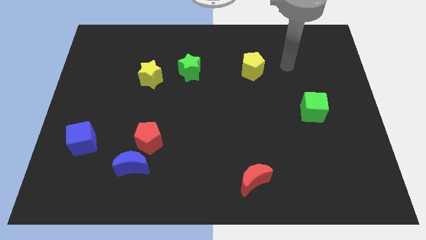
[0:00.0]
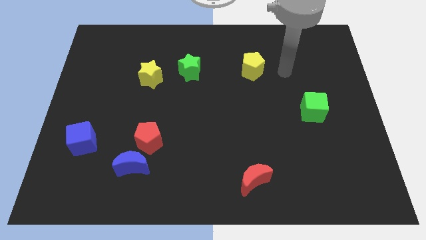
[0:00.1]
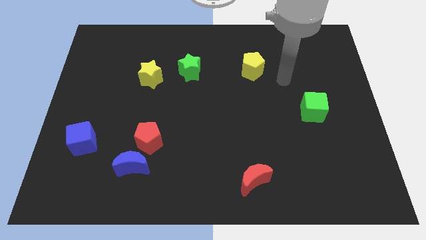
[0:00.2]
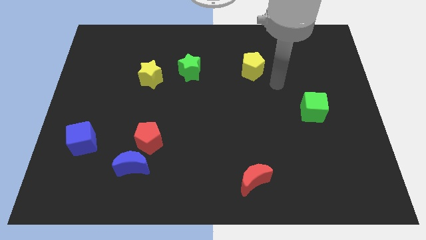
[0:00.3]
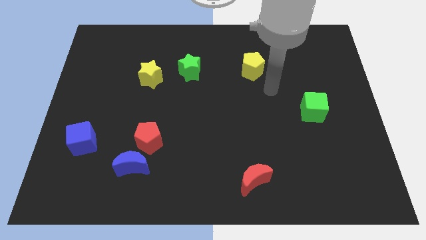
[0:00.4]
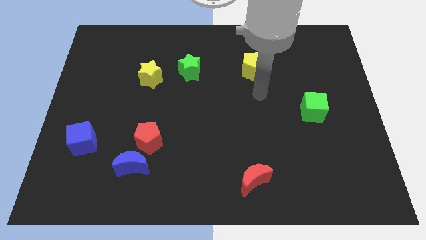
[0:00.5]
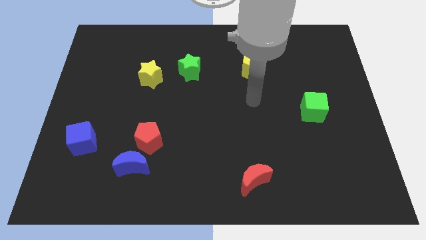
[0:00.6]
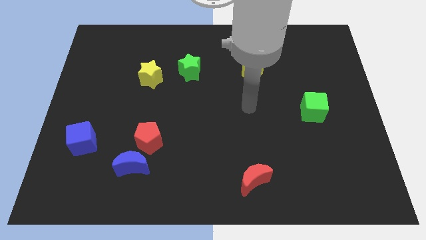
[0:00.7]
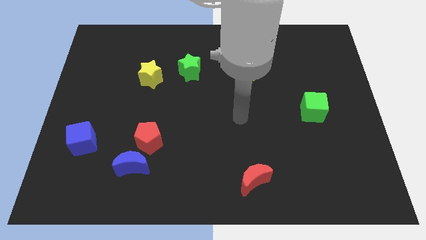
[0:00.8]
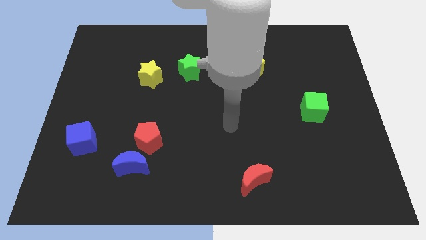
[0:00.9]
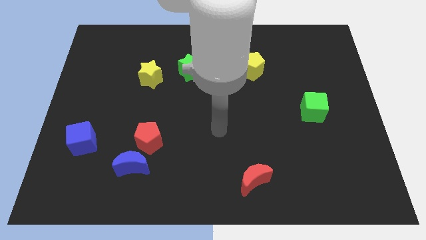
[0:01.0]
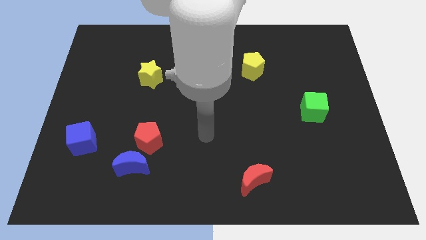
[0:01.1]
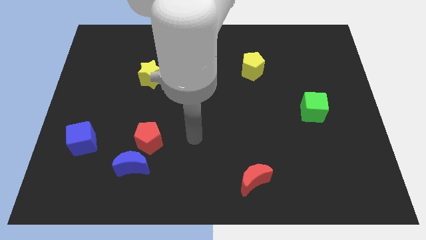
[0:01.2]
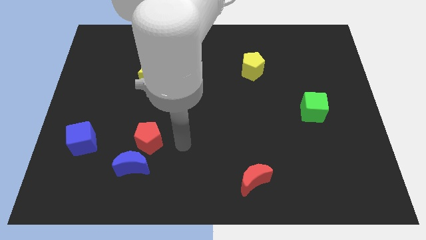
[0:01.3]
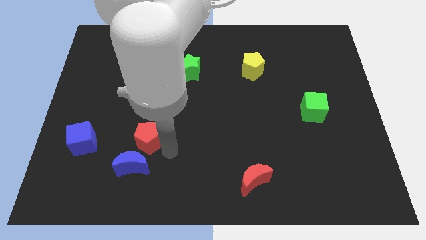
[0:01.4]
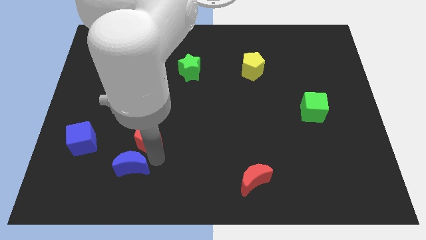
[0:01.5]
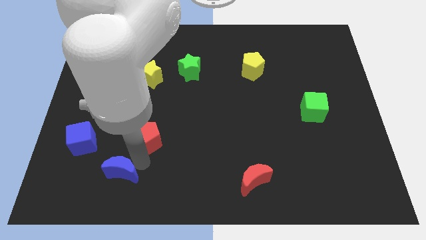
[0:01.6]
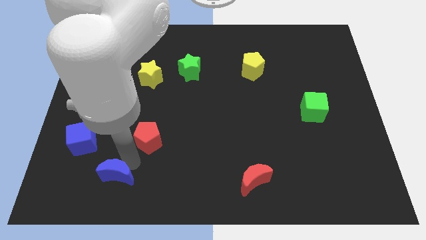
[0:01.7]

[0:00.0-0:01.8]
move the red pentagon away from the blue moon

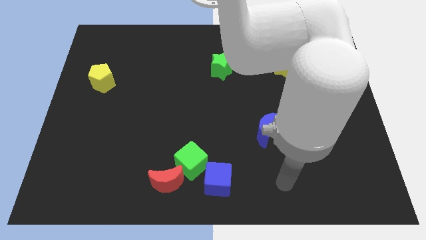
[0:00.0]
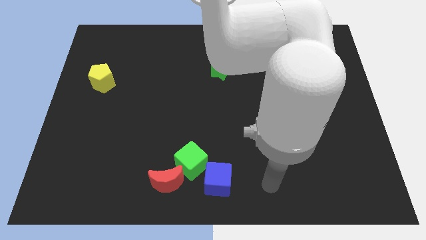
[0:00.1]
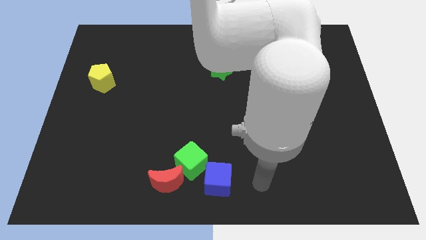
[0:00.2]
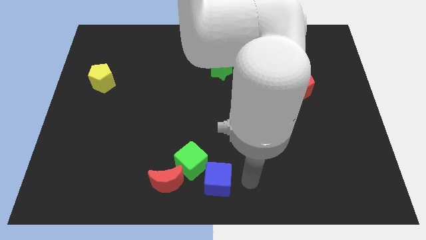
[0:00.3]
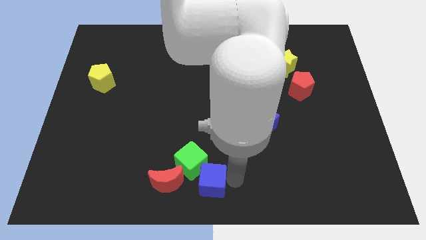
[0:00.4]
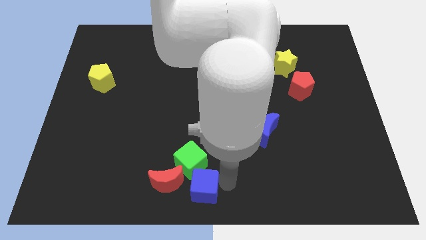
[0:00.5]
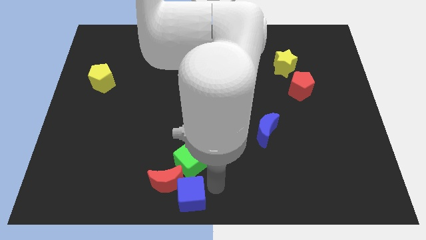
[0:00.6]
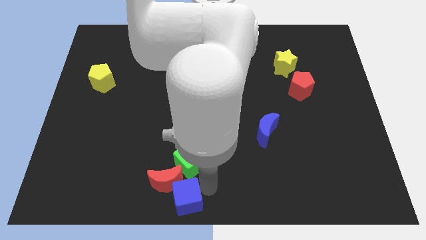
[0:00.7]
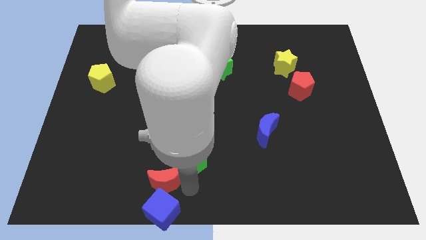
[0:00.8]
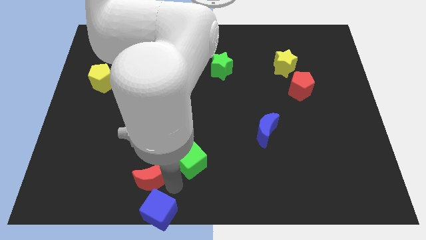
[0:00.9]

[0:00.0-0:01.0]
move the green cube away from the red moon and blue cube

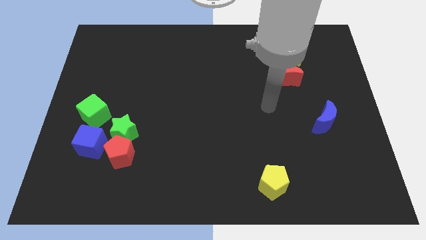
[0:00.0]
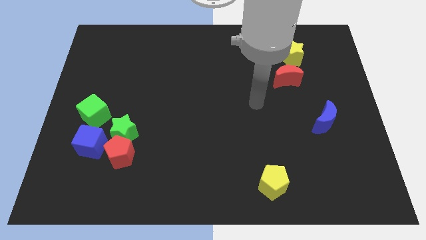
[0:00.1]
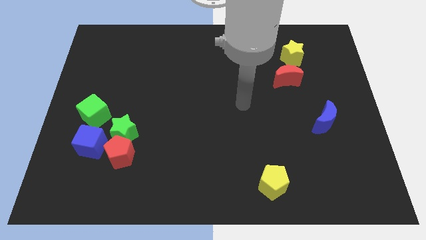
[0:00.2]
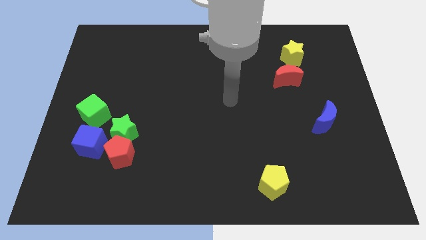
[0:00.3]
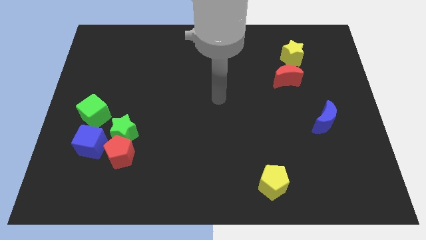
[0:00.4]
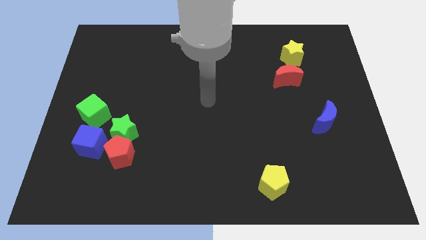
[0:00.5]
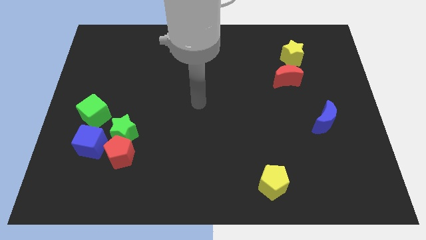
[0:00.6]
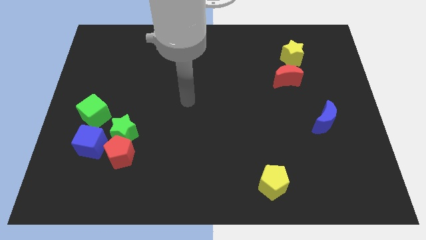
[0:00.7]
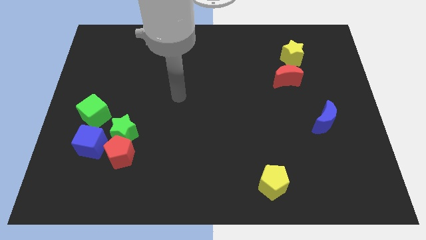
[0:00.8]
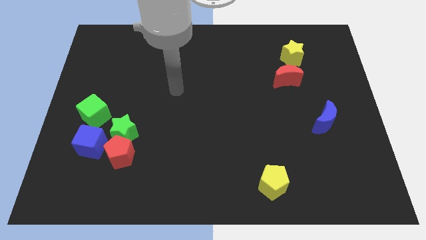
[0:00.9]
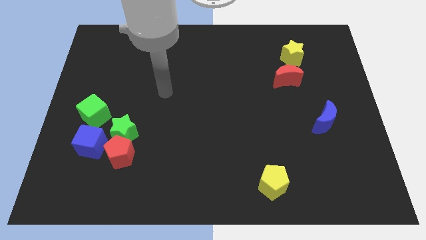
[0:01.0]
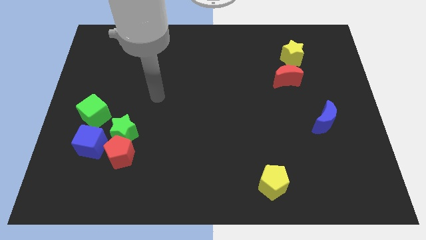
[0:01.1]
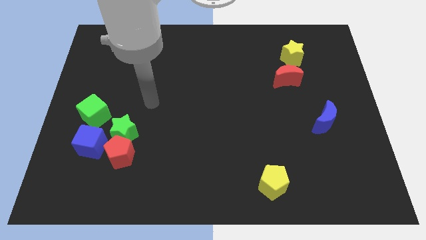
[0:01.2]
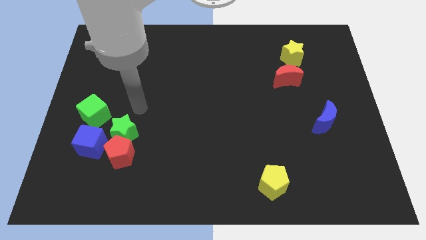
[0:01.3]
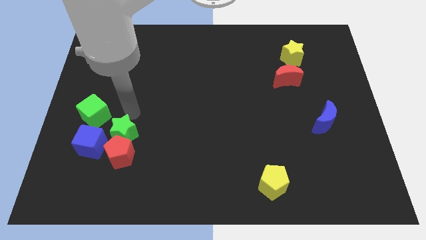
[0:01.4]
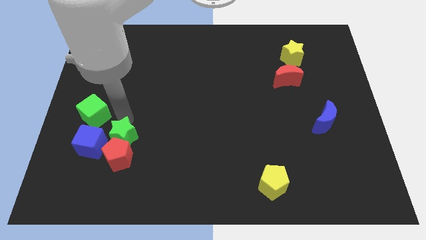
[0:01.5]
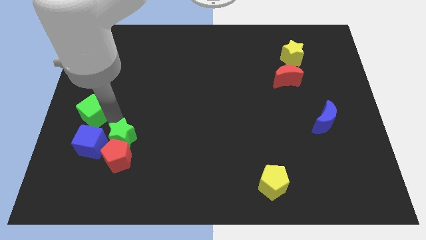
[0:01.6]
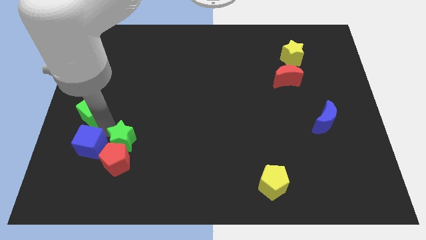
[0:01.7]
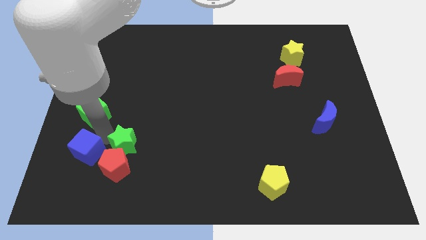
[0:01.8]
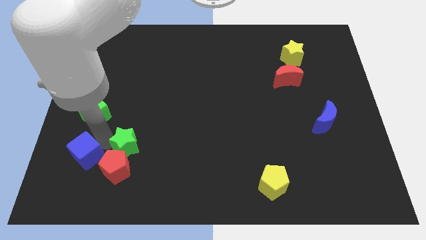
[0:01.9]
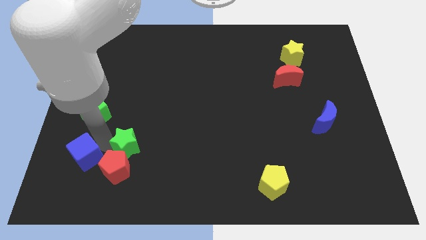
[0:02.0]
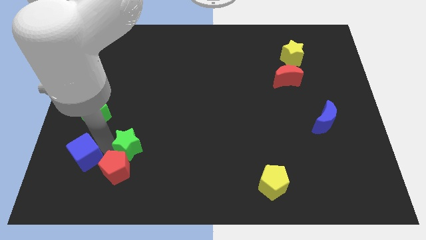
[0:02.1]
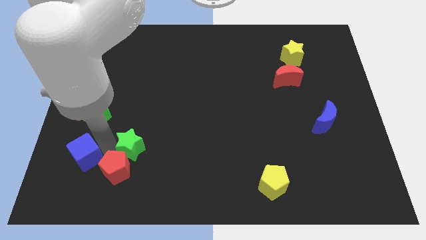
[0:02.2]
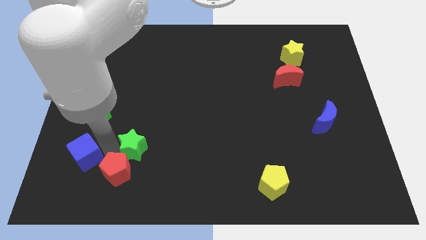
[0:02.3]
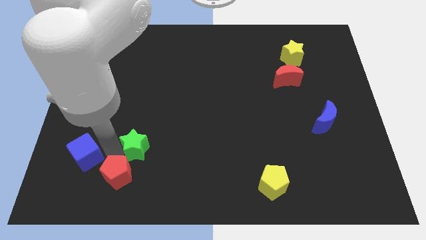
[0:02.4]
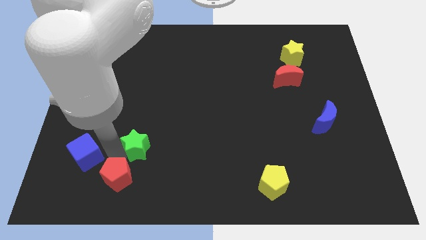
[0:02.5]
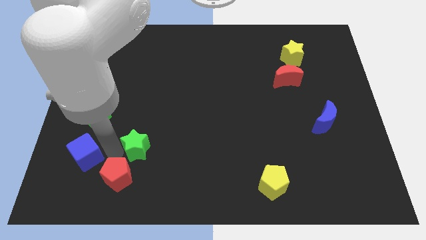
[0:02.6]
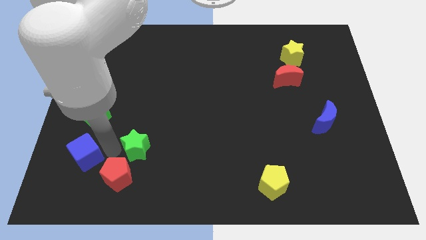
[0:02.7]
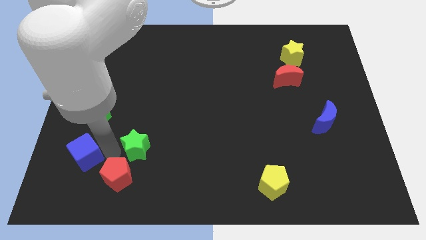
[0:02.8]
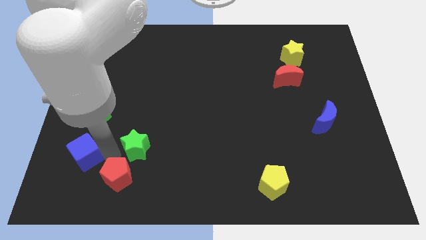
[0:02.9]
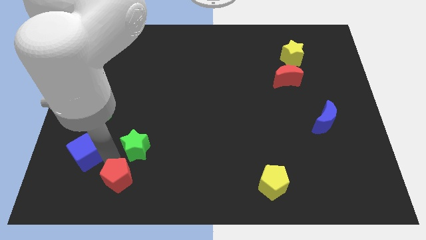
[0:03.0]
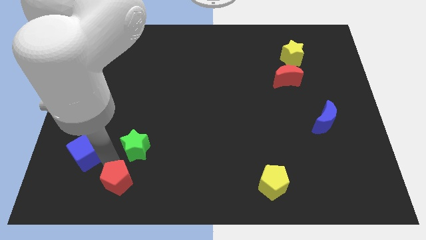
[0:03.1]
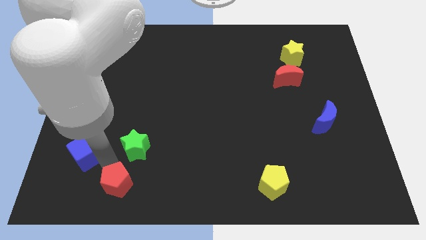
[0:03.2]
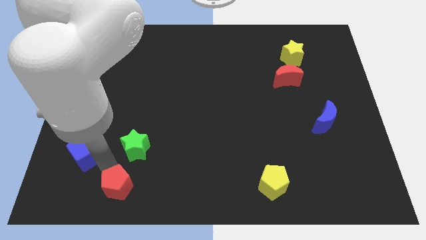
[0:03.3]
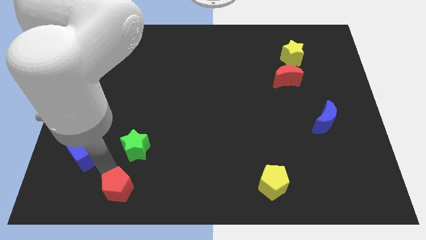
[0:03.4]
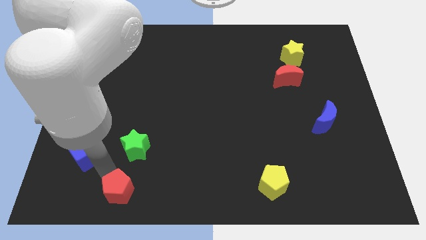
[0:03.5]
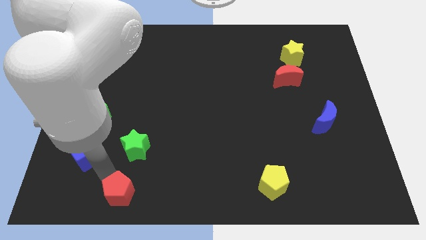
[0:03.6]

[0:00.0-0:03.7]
pull the red pentagon apart from the green star and blue cube

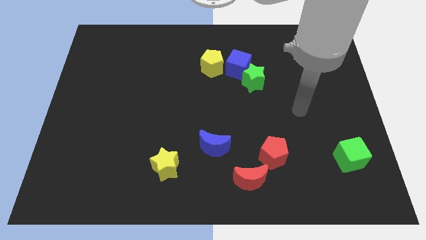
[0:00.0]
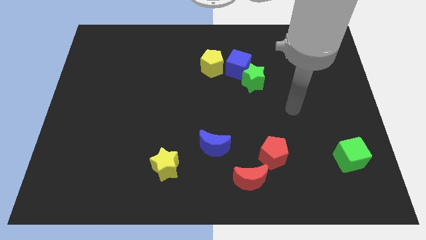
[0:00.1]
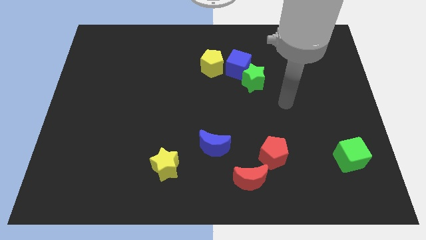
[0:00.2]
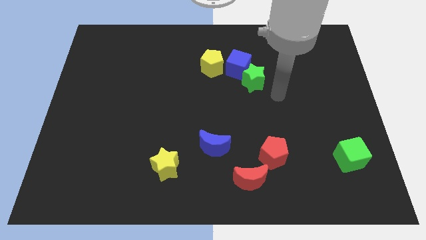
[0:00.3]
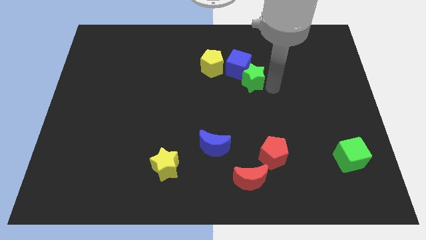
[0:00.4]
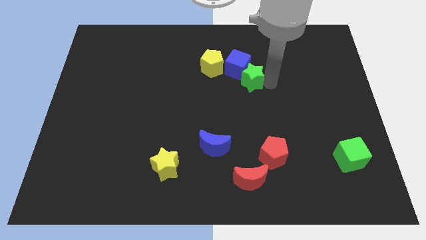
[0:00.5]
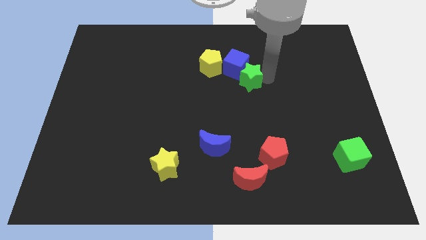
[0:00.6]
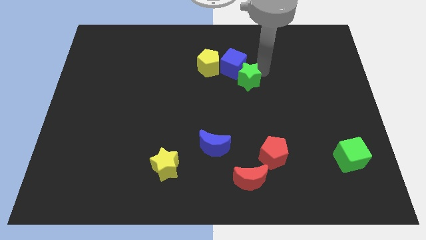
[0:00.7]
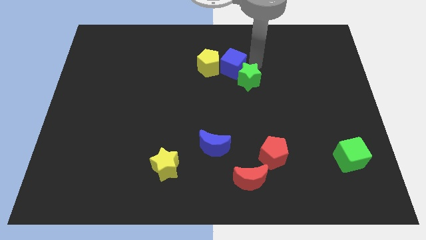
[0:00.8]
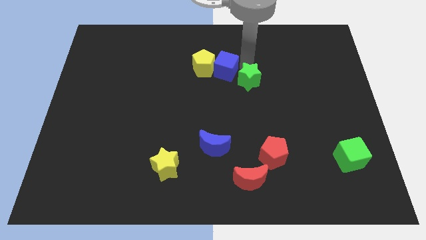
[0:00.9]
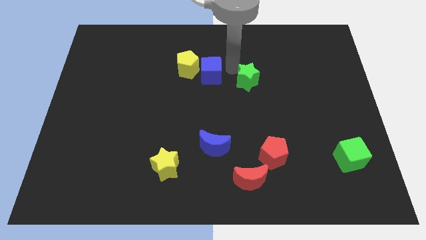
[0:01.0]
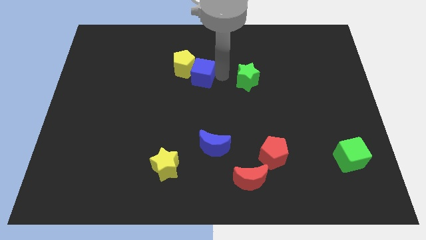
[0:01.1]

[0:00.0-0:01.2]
separate the green star from the blue cube

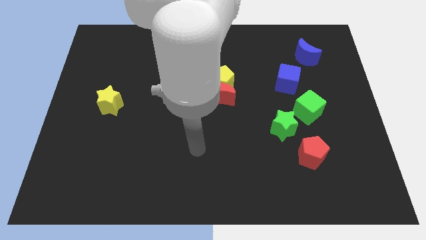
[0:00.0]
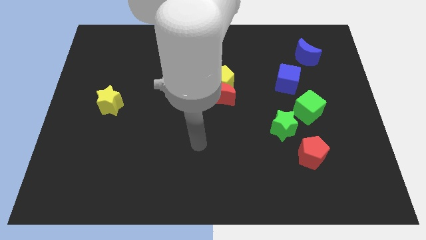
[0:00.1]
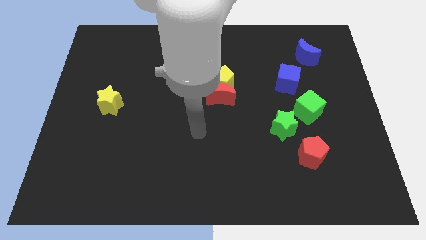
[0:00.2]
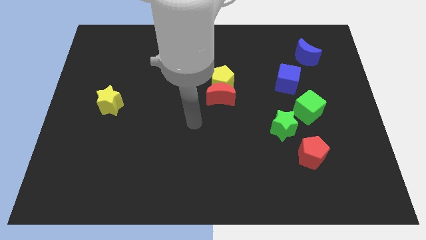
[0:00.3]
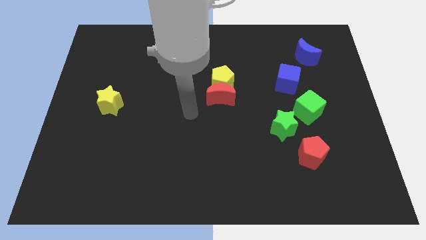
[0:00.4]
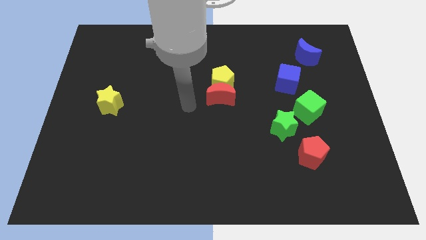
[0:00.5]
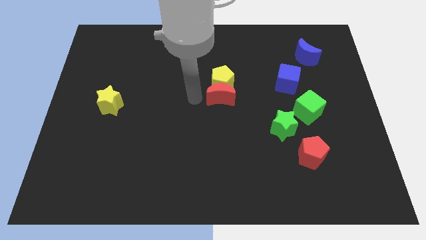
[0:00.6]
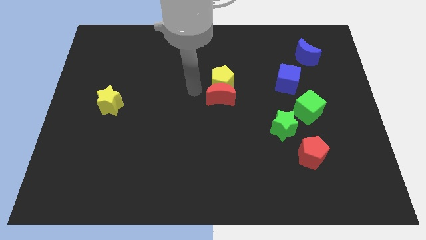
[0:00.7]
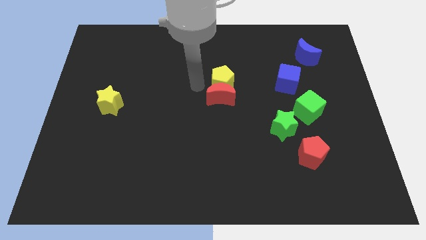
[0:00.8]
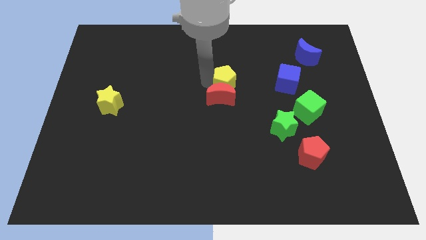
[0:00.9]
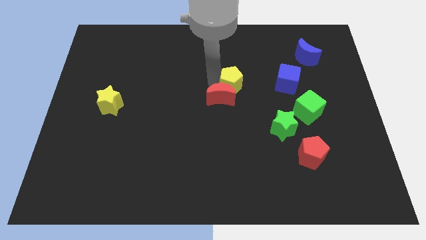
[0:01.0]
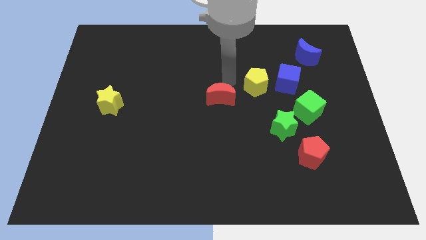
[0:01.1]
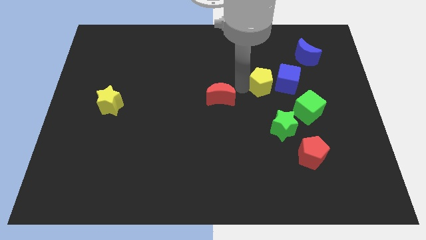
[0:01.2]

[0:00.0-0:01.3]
move the red moon away from the yellow pentagon

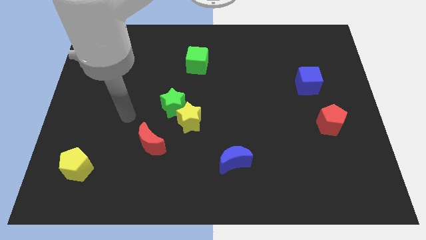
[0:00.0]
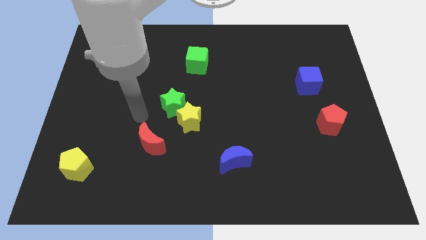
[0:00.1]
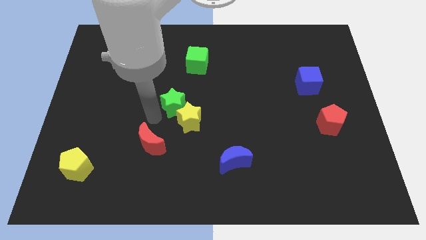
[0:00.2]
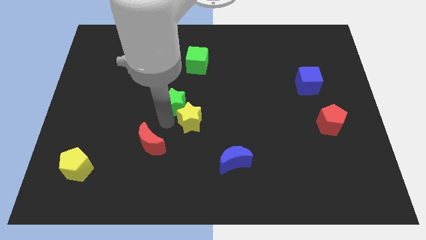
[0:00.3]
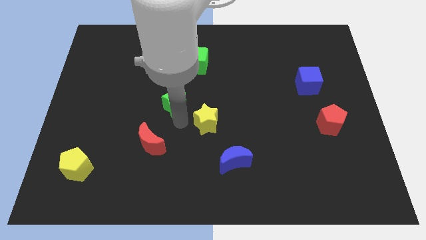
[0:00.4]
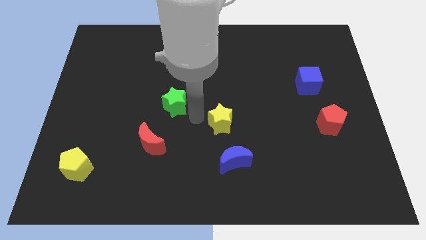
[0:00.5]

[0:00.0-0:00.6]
separate the green star from the yellow star
